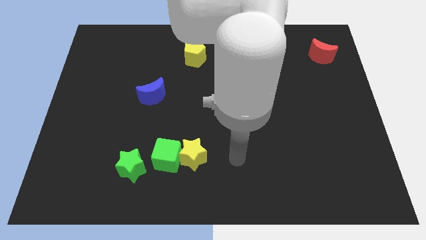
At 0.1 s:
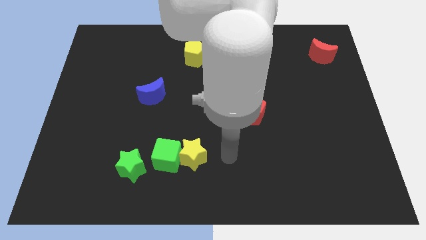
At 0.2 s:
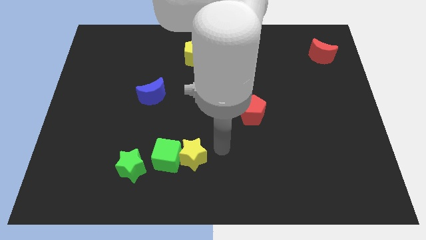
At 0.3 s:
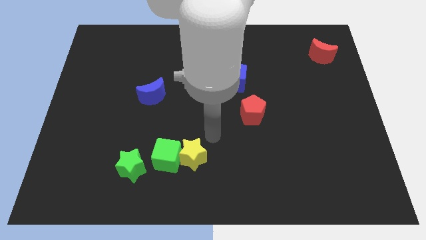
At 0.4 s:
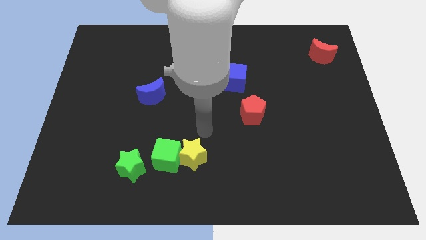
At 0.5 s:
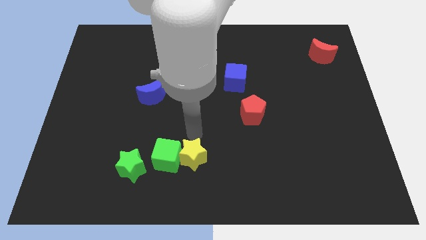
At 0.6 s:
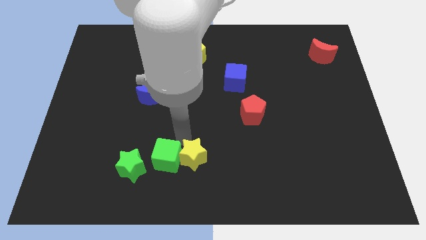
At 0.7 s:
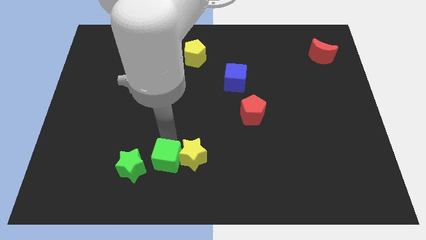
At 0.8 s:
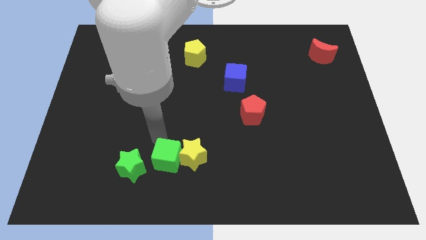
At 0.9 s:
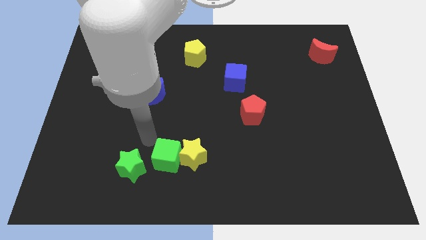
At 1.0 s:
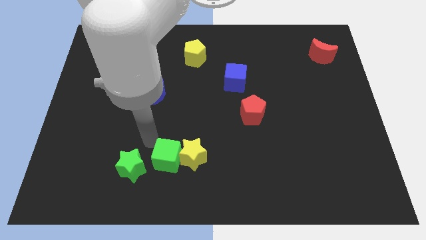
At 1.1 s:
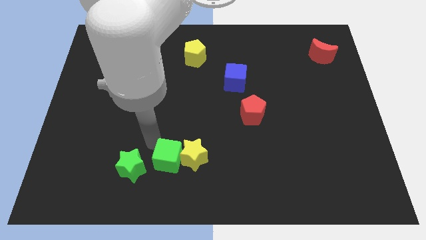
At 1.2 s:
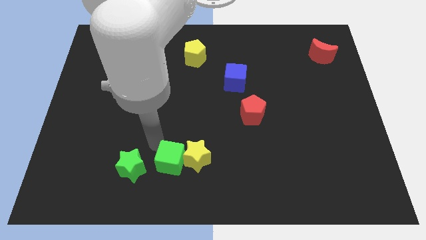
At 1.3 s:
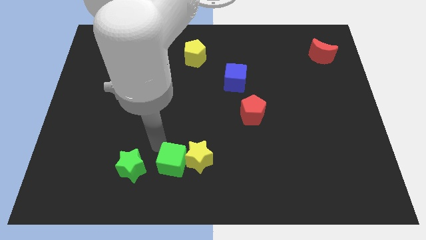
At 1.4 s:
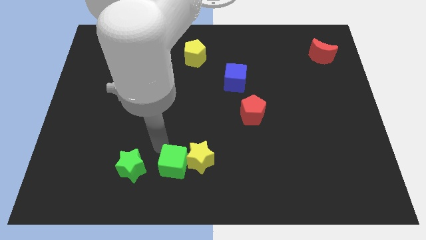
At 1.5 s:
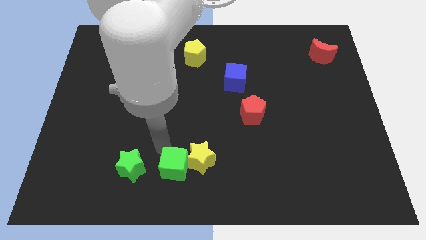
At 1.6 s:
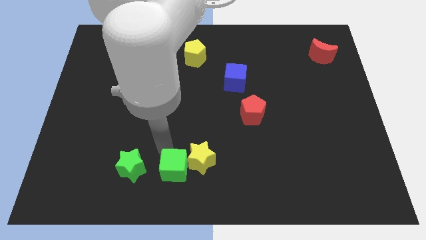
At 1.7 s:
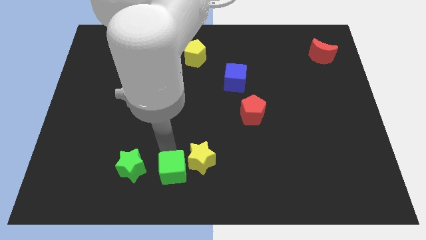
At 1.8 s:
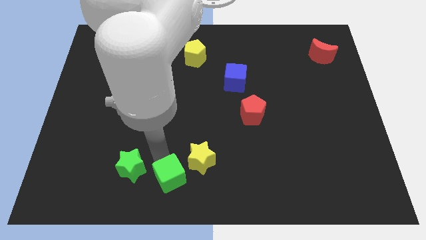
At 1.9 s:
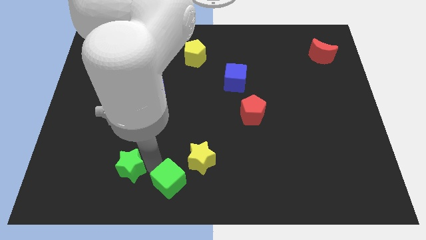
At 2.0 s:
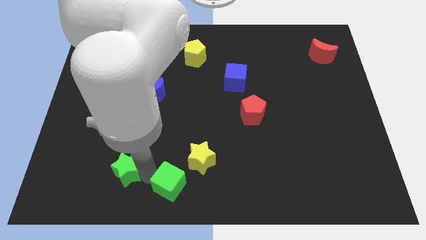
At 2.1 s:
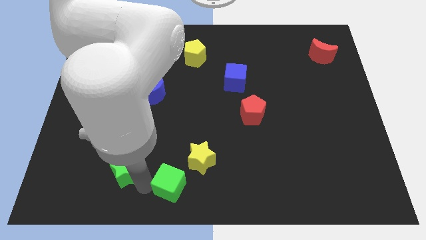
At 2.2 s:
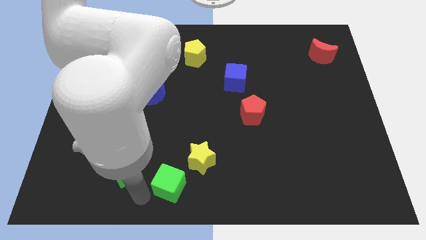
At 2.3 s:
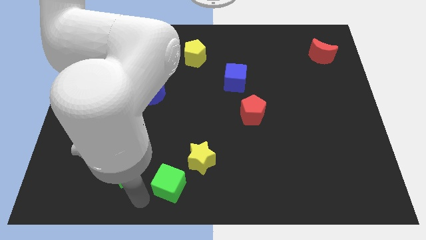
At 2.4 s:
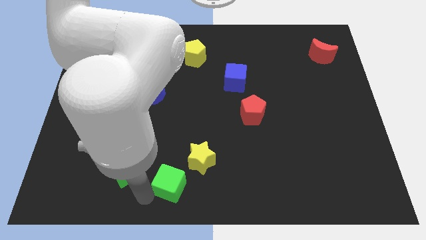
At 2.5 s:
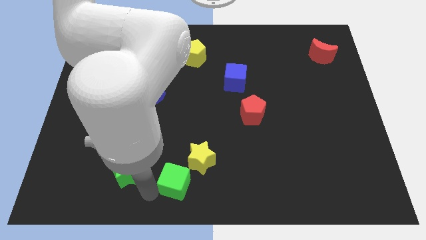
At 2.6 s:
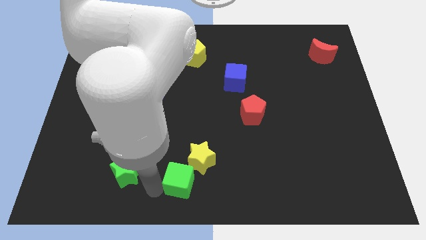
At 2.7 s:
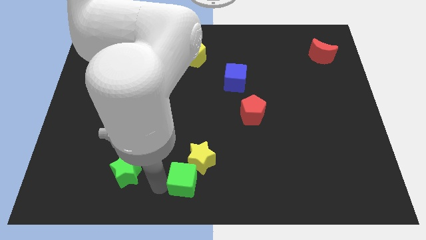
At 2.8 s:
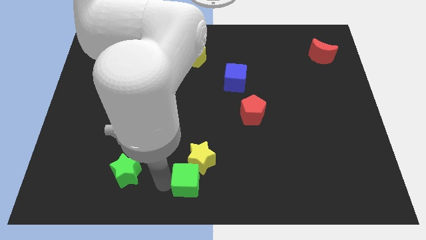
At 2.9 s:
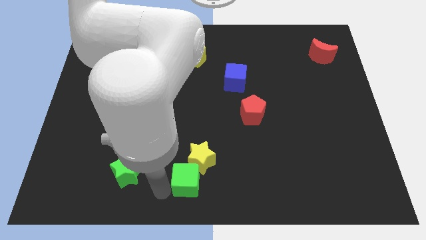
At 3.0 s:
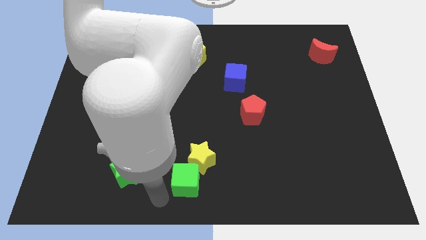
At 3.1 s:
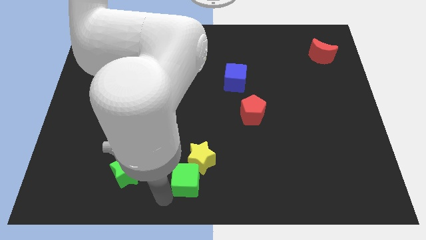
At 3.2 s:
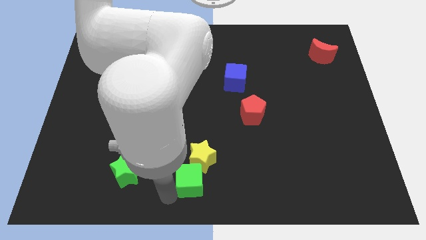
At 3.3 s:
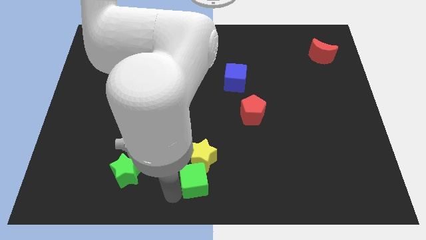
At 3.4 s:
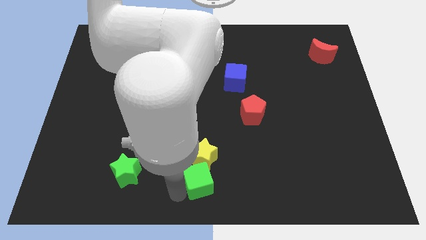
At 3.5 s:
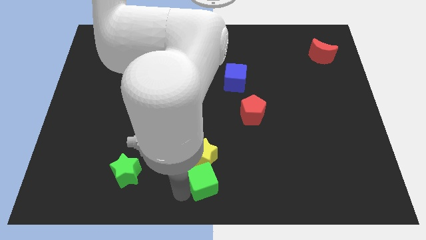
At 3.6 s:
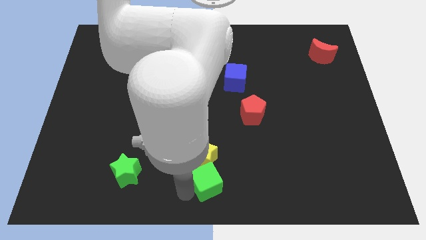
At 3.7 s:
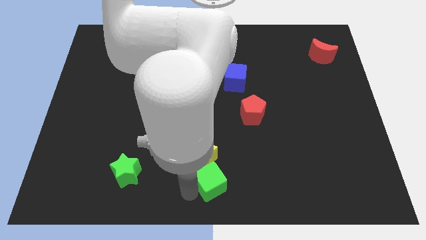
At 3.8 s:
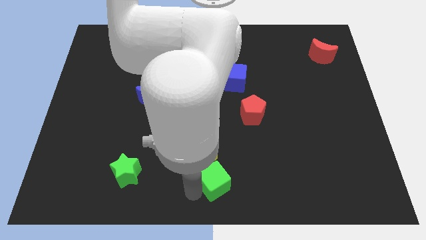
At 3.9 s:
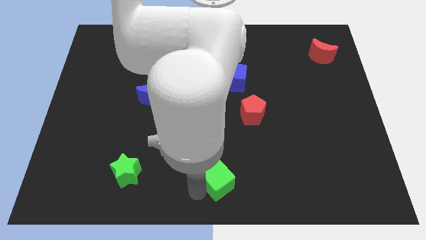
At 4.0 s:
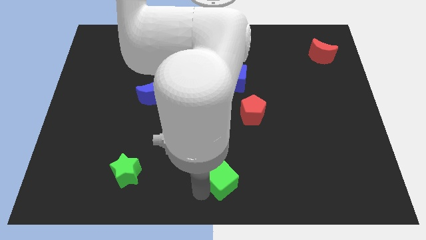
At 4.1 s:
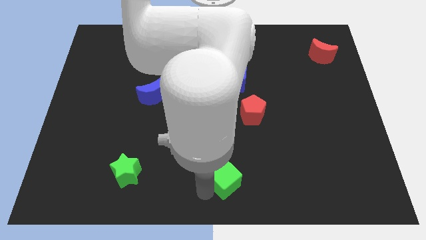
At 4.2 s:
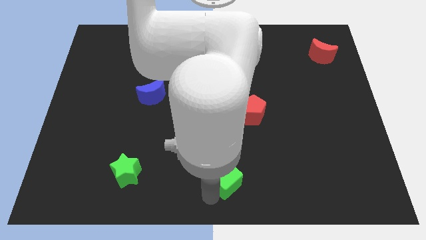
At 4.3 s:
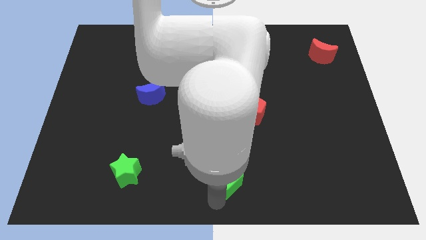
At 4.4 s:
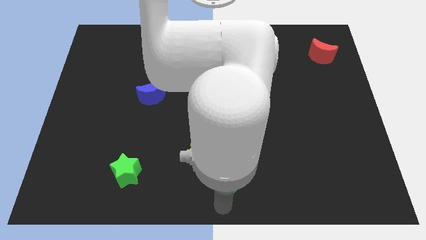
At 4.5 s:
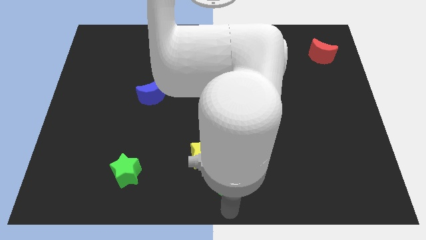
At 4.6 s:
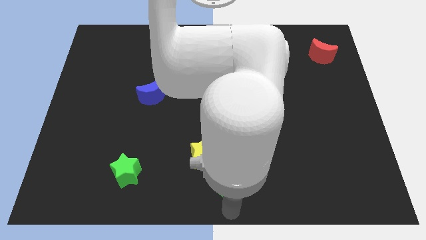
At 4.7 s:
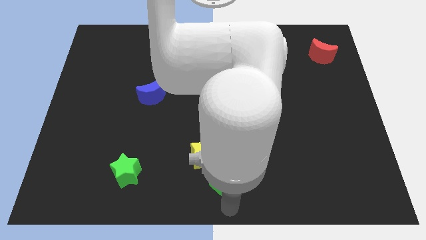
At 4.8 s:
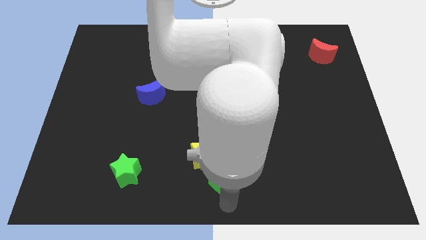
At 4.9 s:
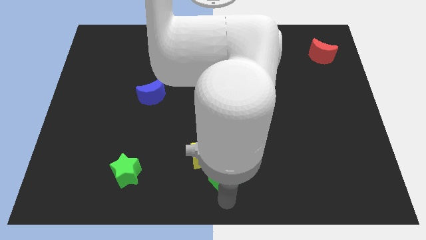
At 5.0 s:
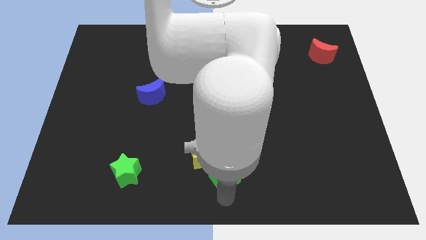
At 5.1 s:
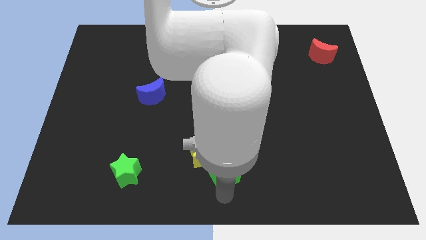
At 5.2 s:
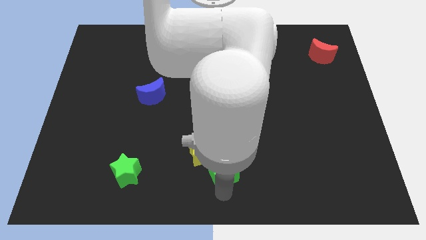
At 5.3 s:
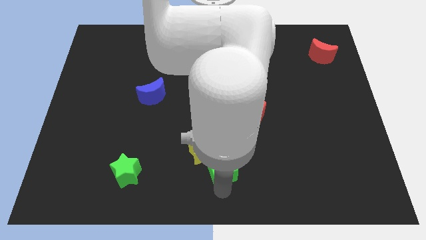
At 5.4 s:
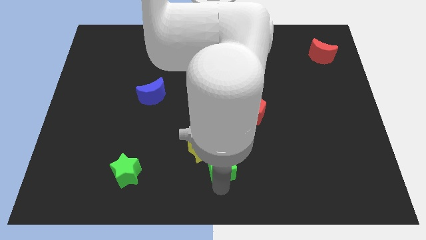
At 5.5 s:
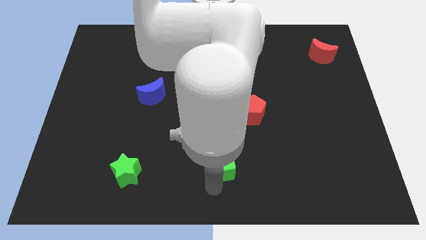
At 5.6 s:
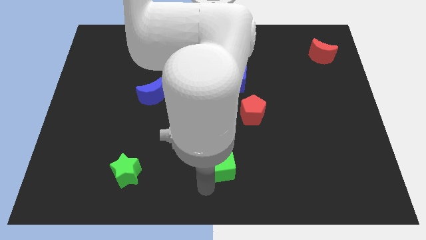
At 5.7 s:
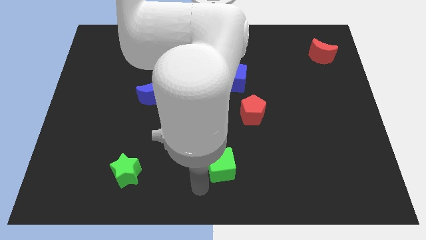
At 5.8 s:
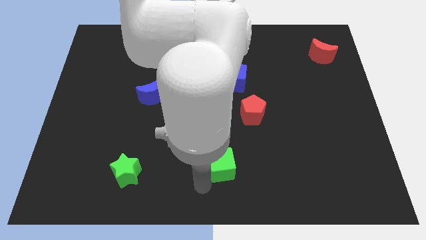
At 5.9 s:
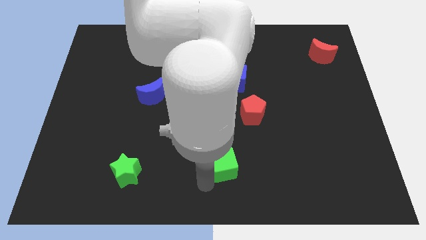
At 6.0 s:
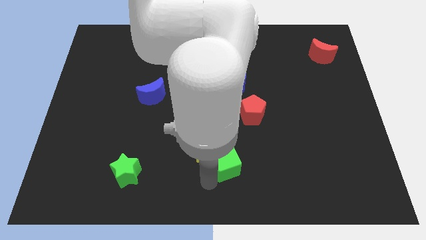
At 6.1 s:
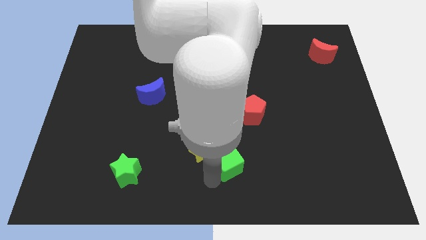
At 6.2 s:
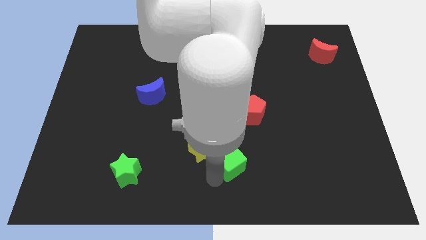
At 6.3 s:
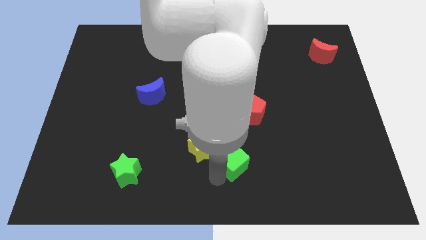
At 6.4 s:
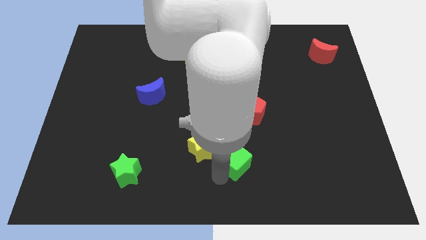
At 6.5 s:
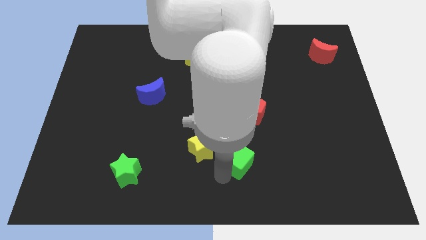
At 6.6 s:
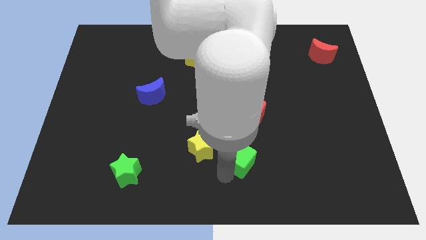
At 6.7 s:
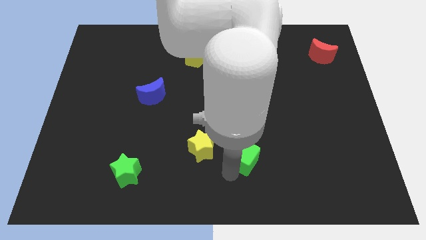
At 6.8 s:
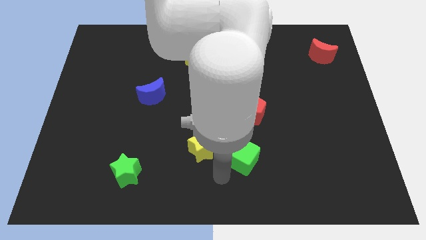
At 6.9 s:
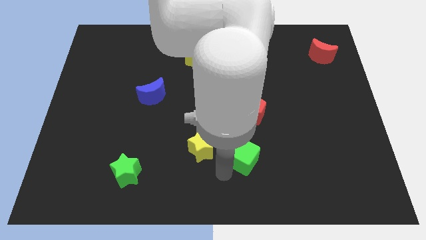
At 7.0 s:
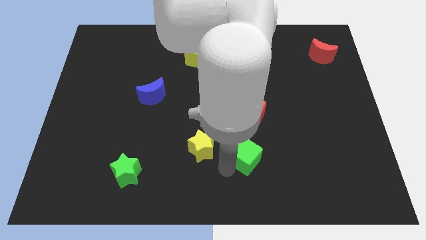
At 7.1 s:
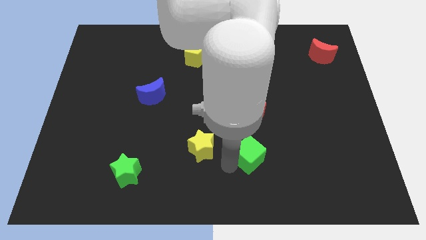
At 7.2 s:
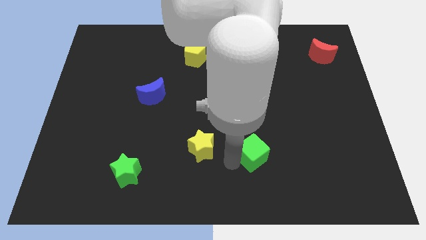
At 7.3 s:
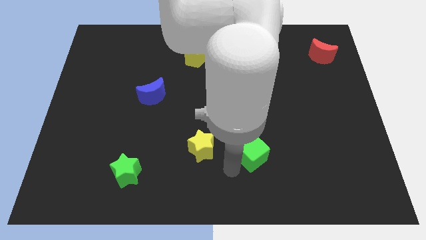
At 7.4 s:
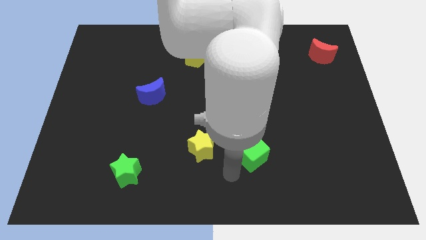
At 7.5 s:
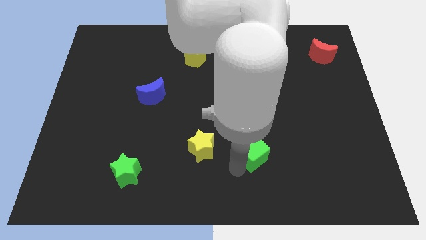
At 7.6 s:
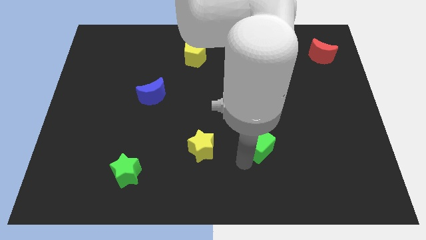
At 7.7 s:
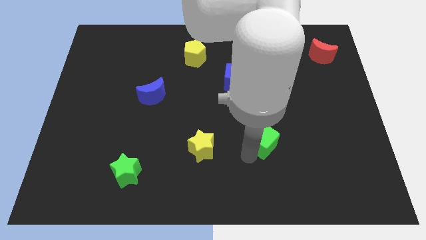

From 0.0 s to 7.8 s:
move the green cube diagonally down and to the right of the red pentagon
